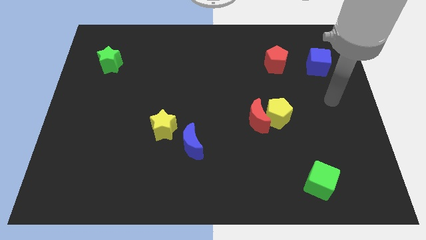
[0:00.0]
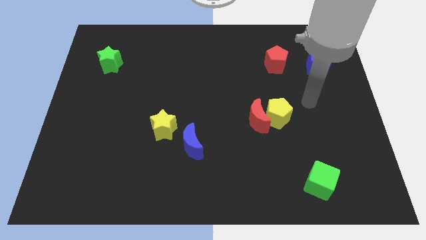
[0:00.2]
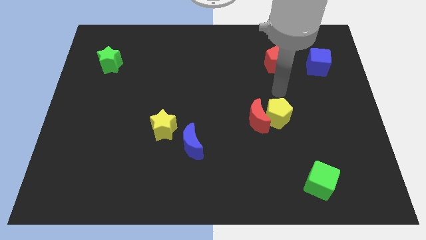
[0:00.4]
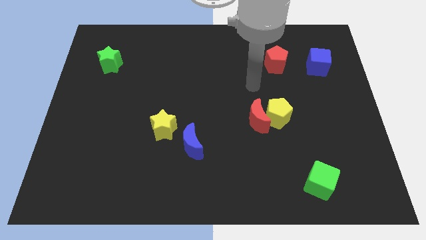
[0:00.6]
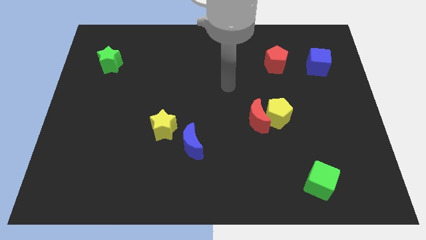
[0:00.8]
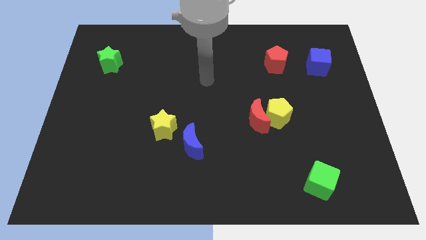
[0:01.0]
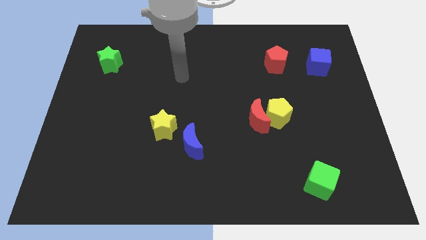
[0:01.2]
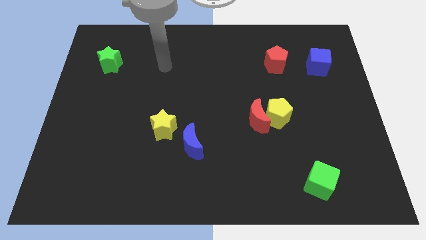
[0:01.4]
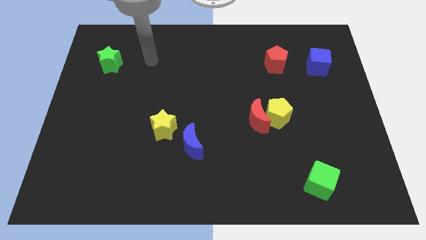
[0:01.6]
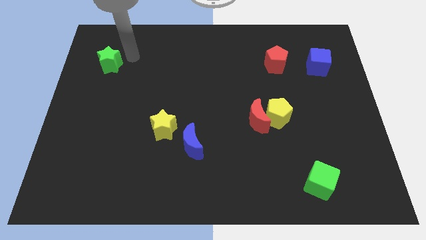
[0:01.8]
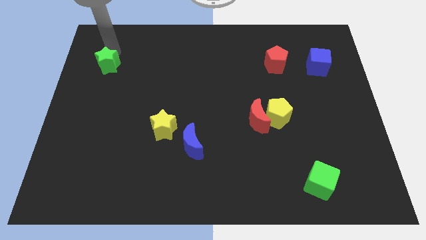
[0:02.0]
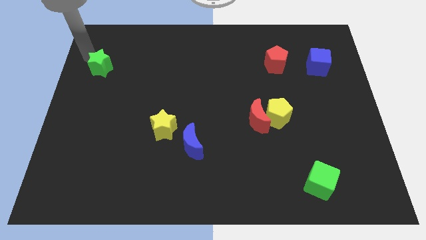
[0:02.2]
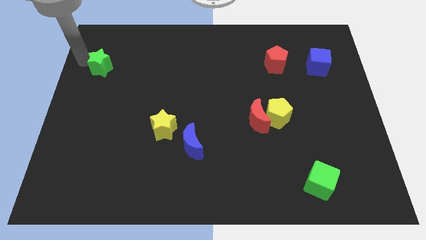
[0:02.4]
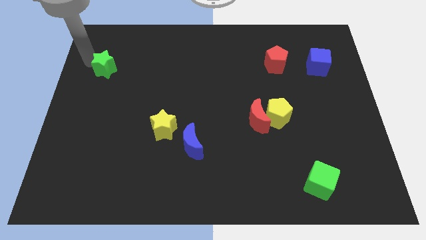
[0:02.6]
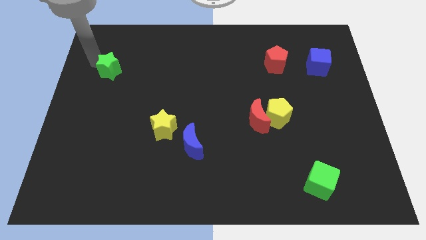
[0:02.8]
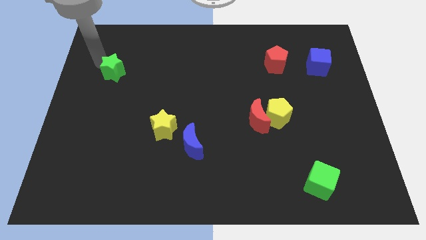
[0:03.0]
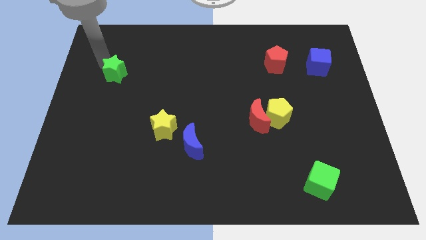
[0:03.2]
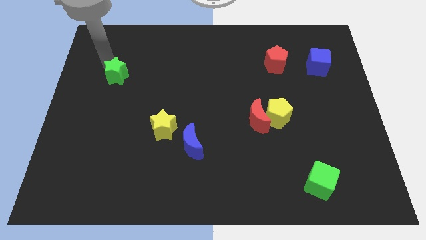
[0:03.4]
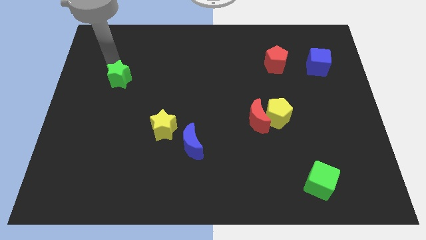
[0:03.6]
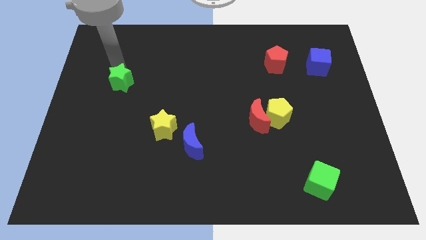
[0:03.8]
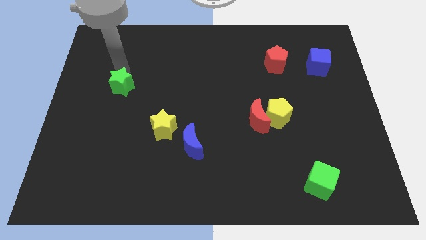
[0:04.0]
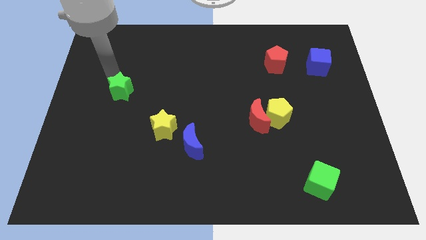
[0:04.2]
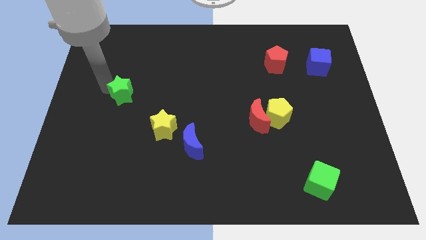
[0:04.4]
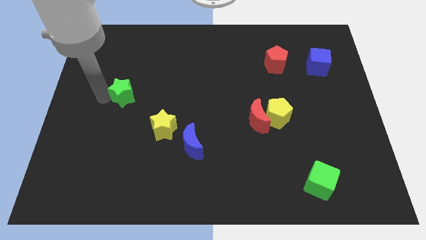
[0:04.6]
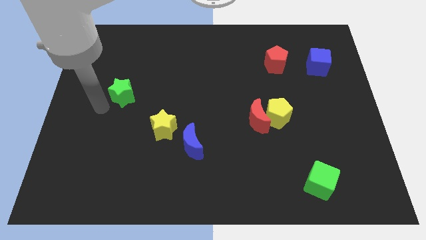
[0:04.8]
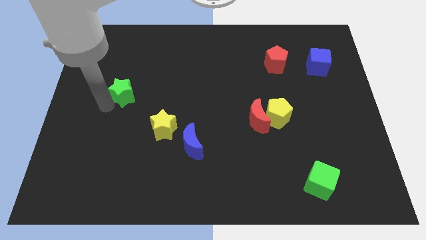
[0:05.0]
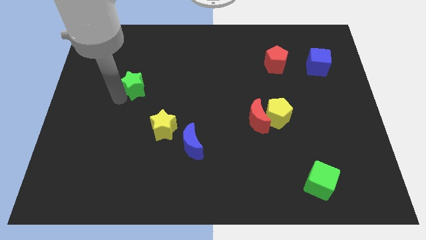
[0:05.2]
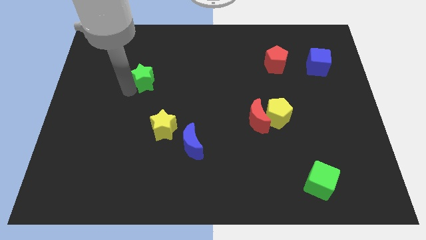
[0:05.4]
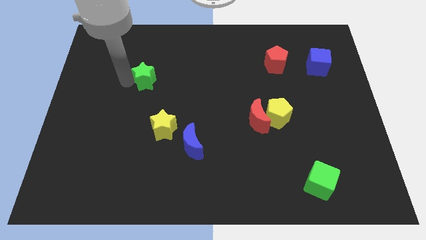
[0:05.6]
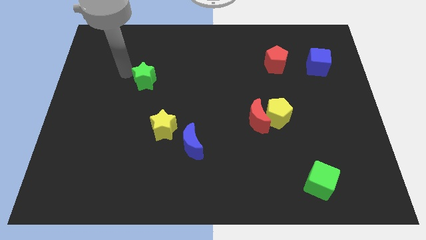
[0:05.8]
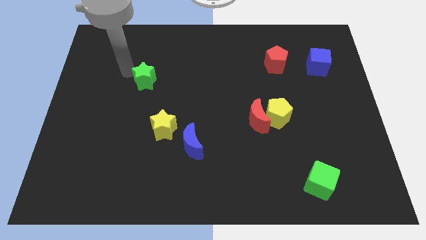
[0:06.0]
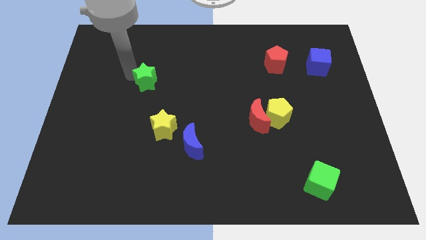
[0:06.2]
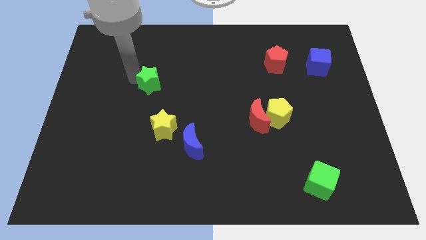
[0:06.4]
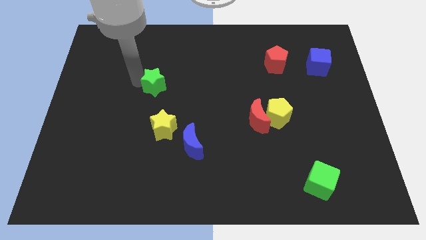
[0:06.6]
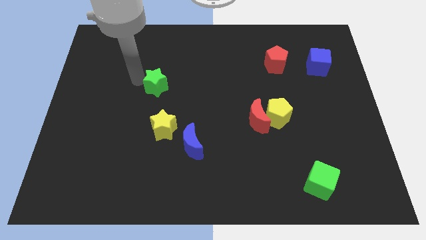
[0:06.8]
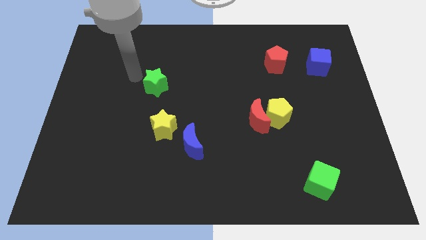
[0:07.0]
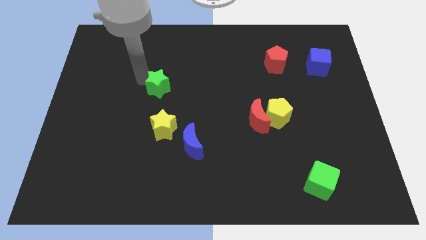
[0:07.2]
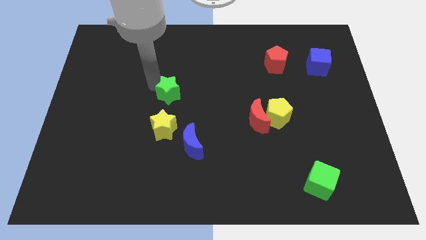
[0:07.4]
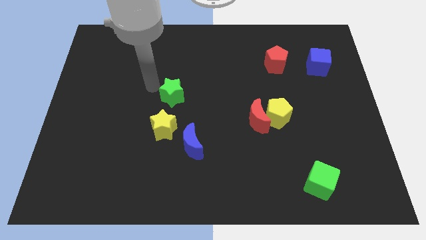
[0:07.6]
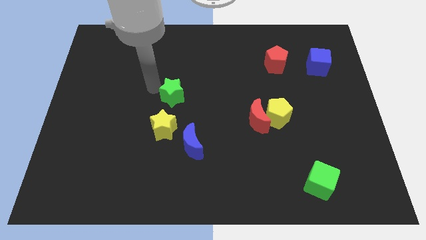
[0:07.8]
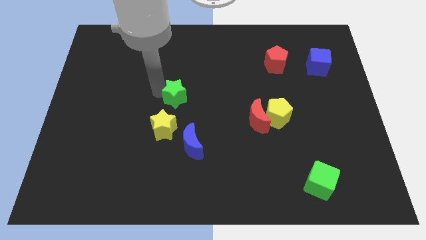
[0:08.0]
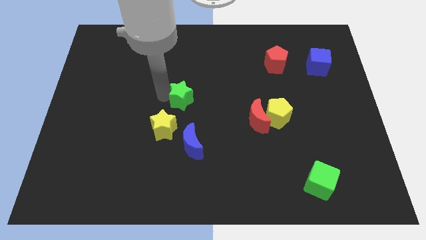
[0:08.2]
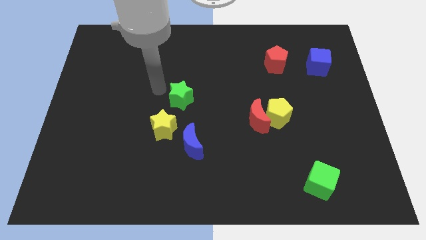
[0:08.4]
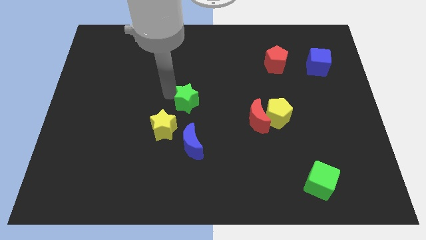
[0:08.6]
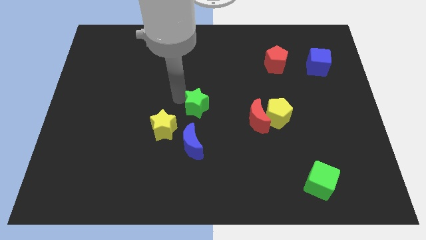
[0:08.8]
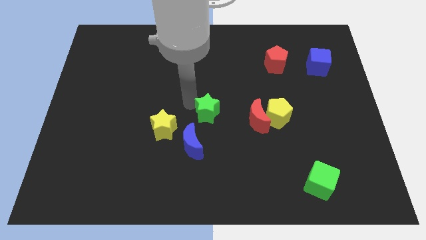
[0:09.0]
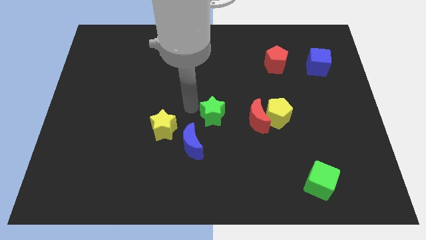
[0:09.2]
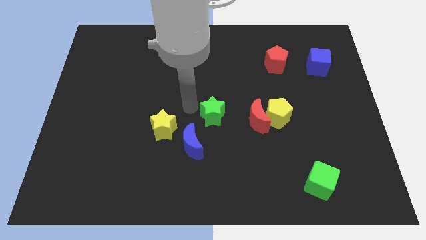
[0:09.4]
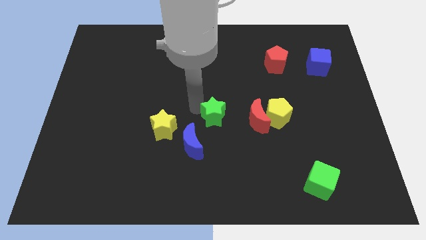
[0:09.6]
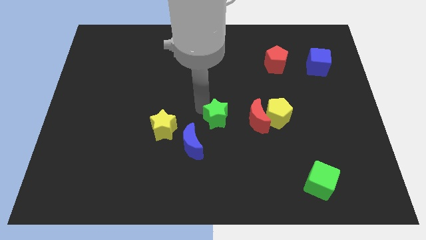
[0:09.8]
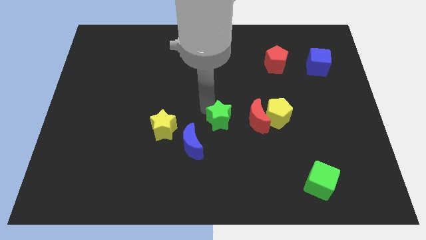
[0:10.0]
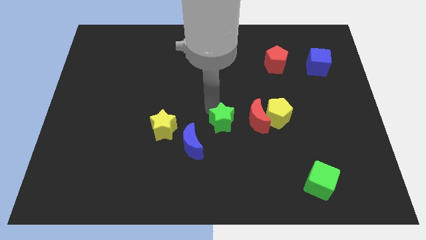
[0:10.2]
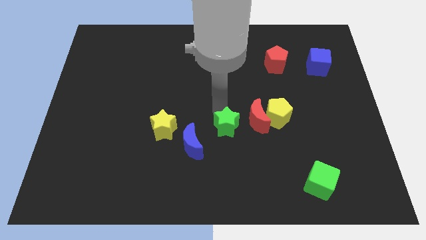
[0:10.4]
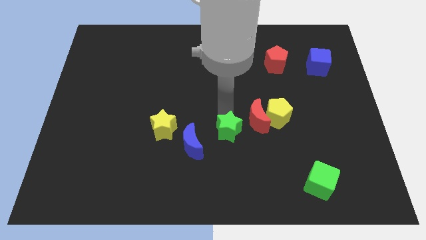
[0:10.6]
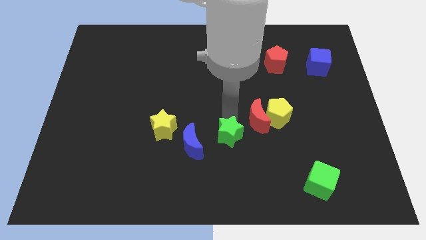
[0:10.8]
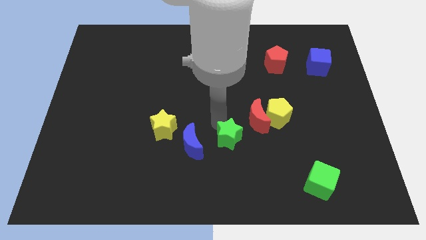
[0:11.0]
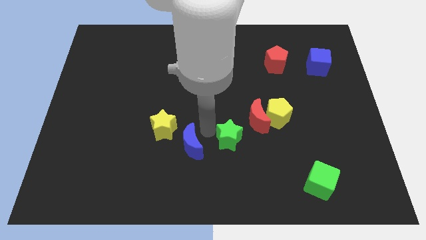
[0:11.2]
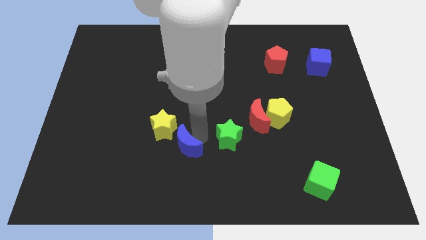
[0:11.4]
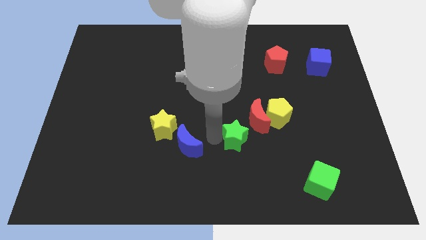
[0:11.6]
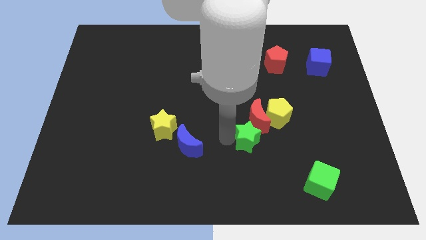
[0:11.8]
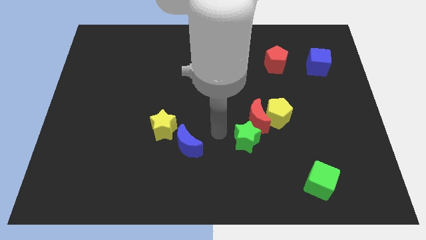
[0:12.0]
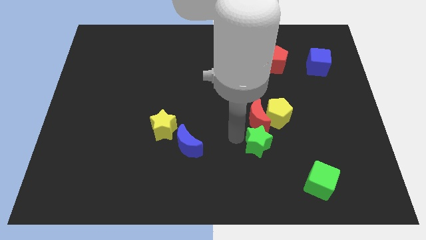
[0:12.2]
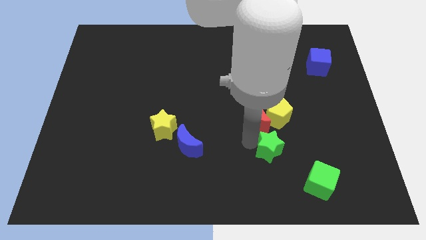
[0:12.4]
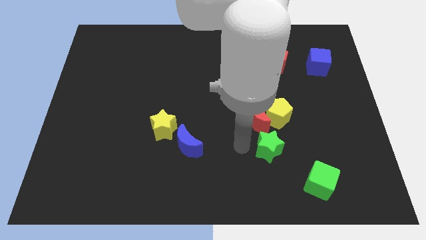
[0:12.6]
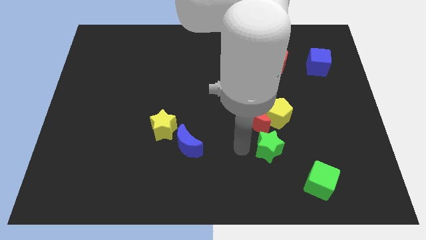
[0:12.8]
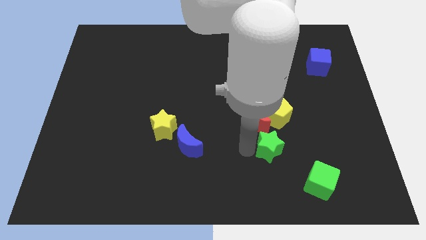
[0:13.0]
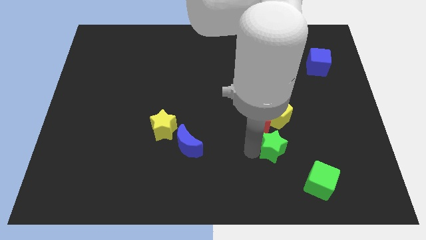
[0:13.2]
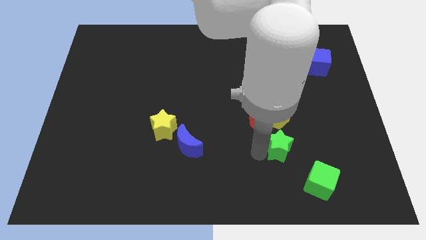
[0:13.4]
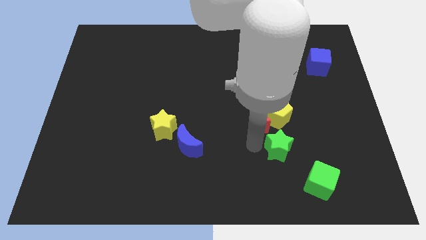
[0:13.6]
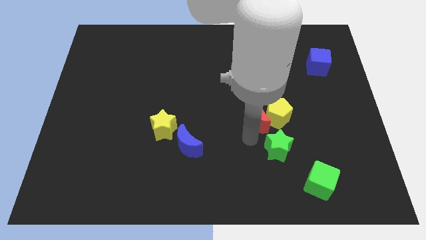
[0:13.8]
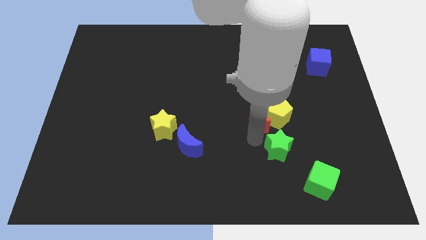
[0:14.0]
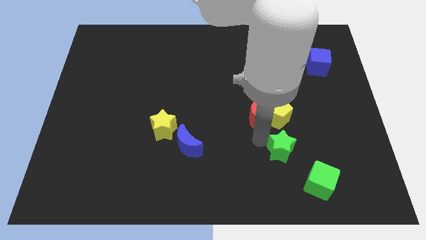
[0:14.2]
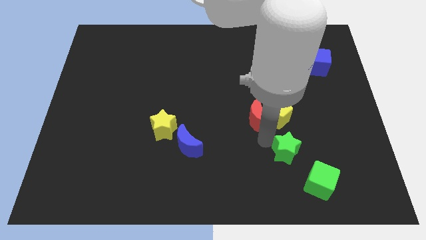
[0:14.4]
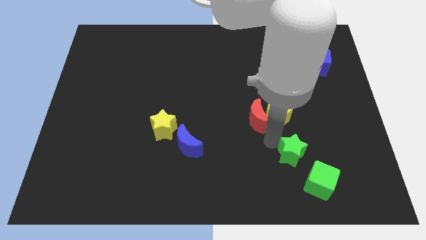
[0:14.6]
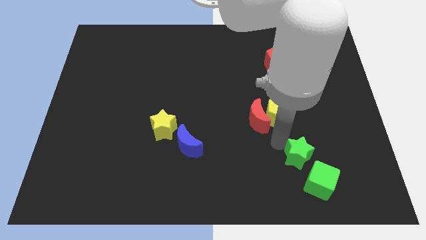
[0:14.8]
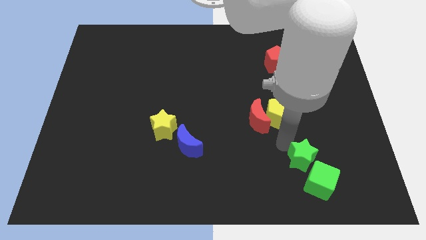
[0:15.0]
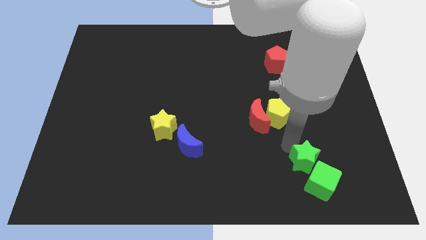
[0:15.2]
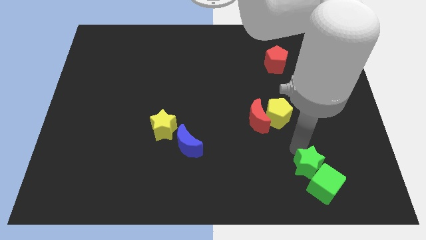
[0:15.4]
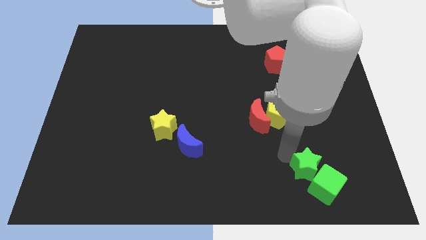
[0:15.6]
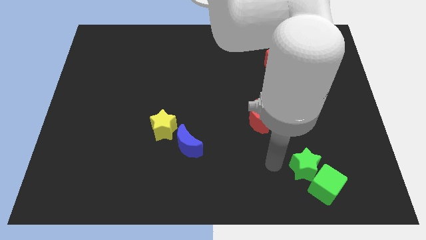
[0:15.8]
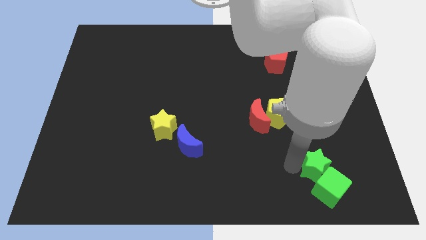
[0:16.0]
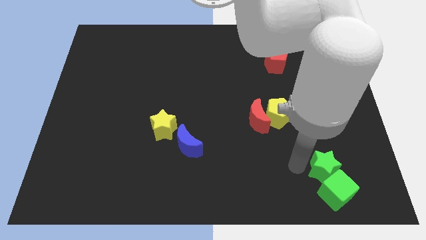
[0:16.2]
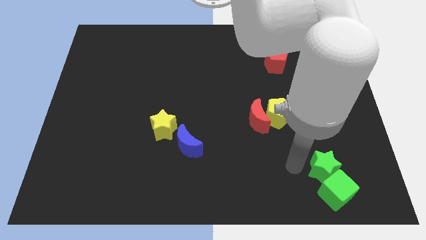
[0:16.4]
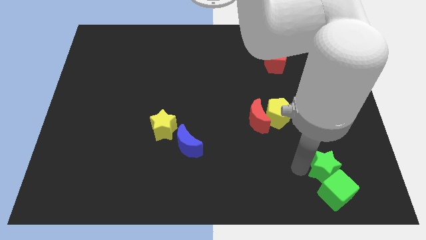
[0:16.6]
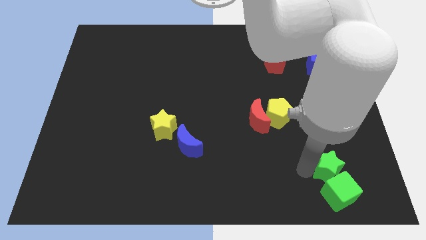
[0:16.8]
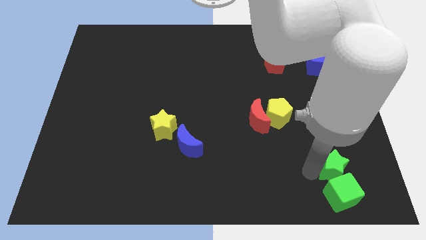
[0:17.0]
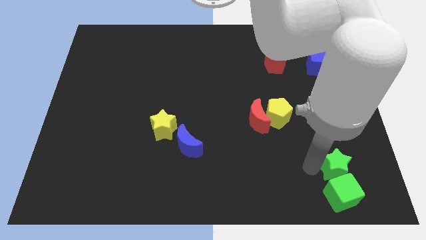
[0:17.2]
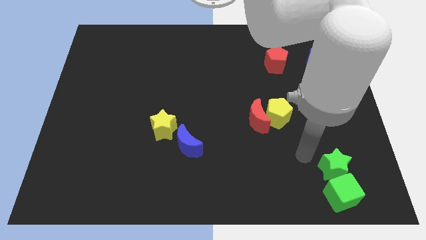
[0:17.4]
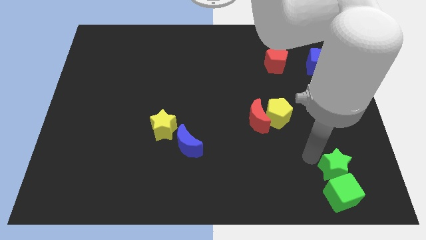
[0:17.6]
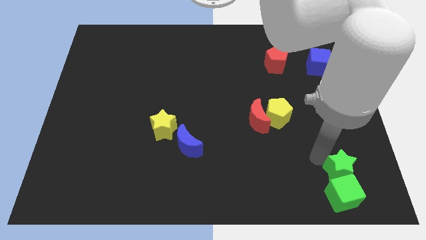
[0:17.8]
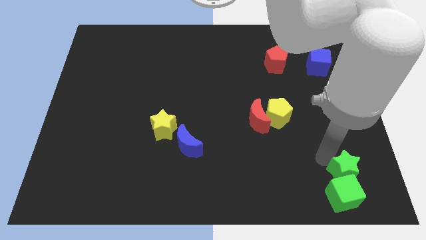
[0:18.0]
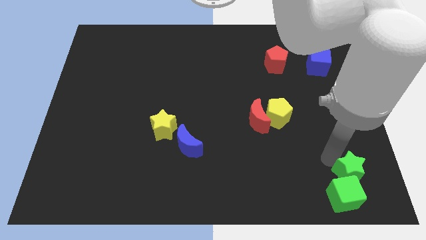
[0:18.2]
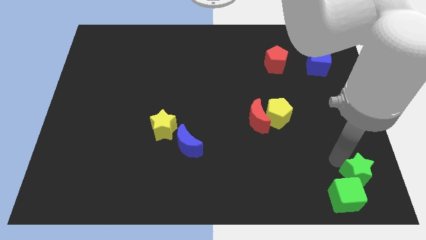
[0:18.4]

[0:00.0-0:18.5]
put the green star to the lower right corner
